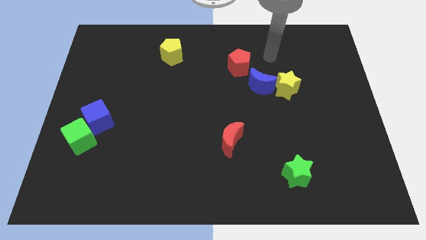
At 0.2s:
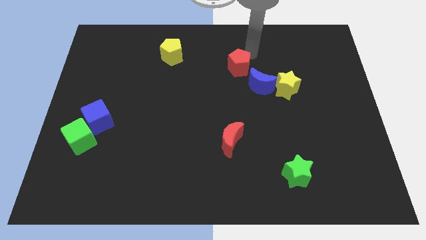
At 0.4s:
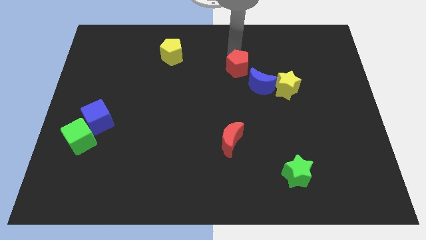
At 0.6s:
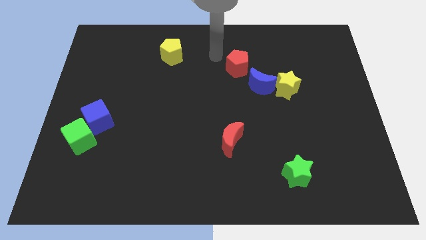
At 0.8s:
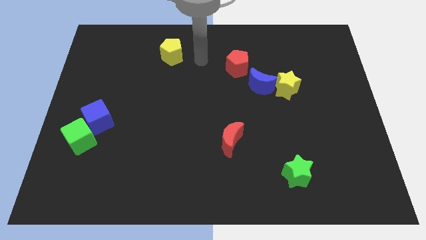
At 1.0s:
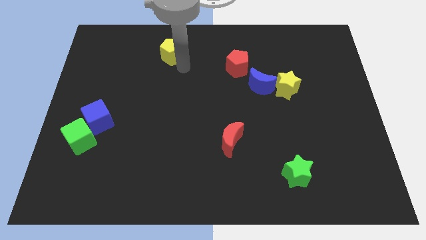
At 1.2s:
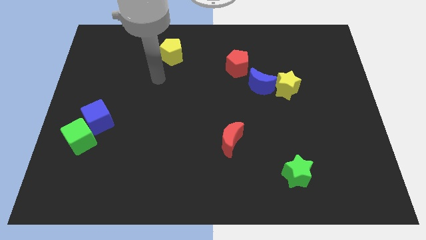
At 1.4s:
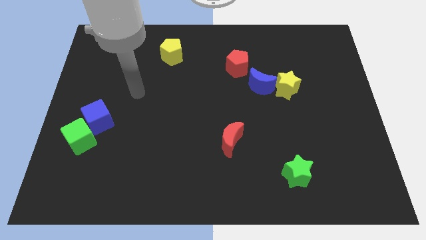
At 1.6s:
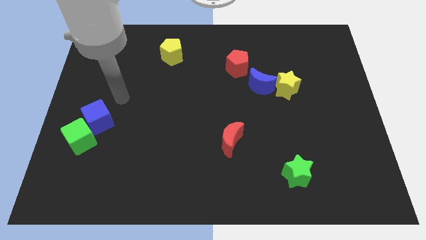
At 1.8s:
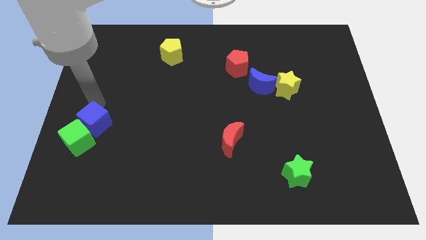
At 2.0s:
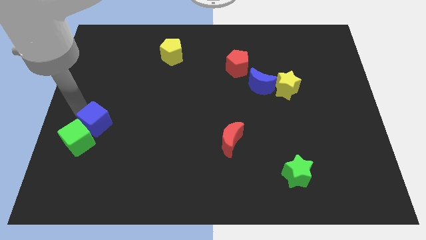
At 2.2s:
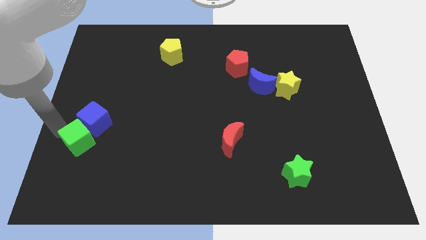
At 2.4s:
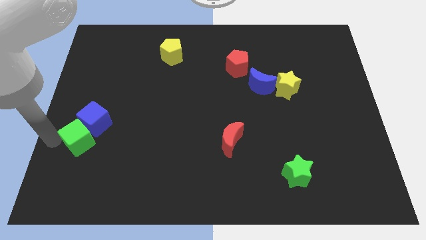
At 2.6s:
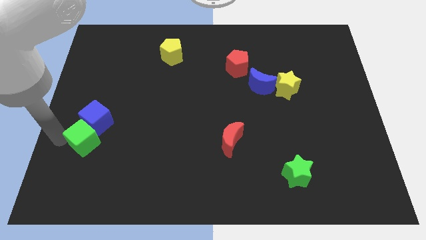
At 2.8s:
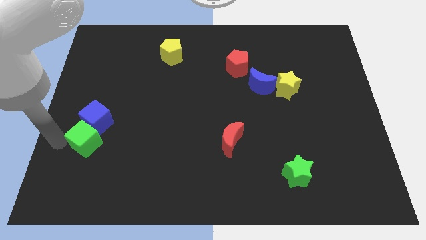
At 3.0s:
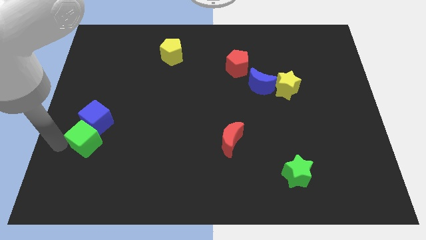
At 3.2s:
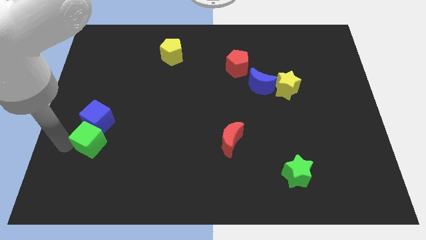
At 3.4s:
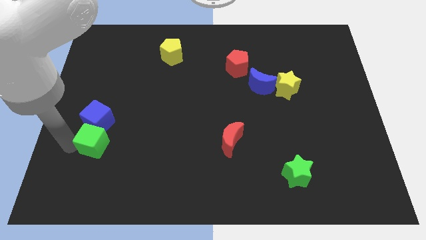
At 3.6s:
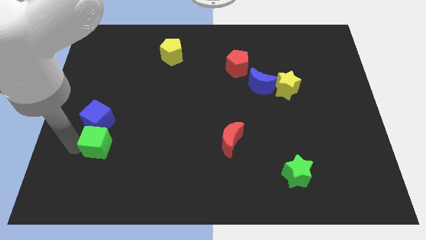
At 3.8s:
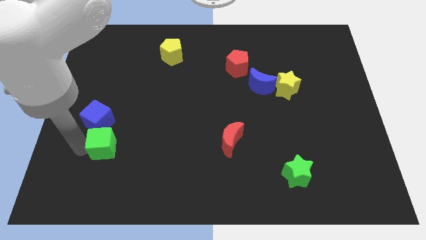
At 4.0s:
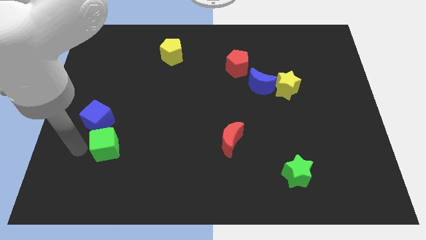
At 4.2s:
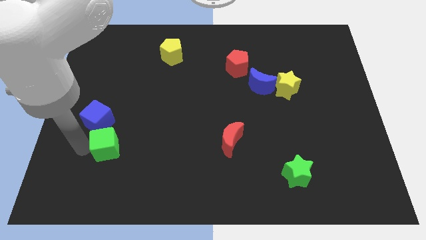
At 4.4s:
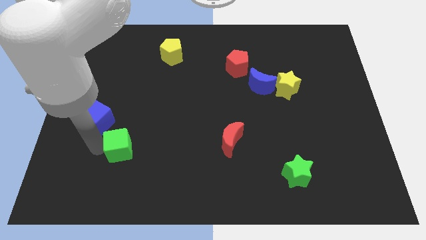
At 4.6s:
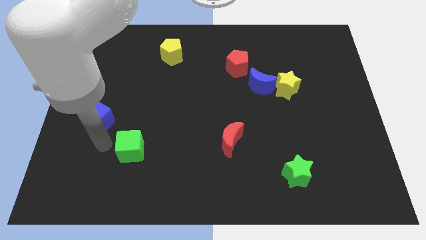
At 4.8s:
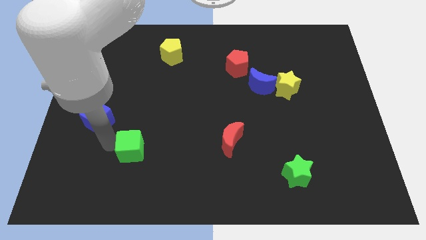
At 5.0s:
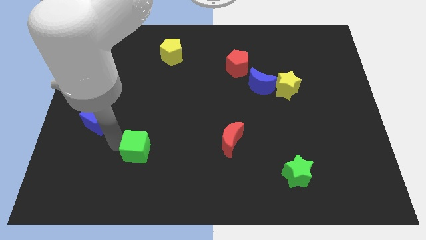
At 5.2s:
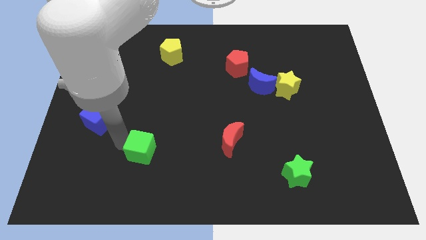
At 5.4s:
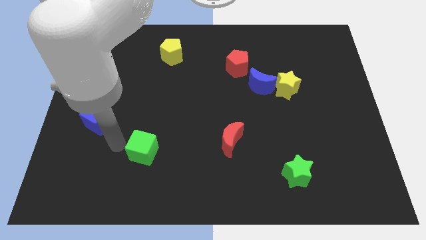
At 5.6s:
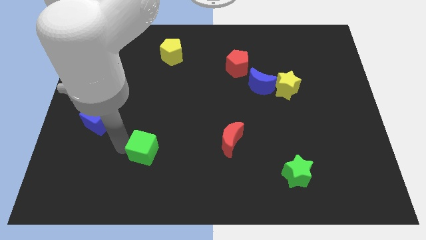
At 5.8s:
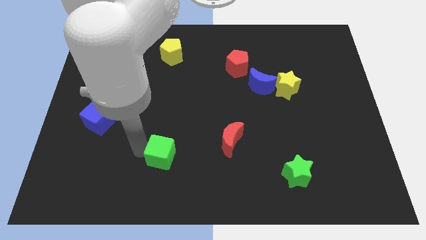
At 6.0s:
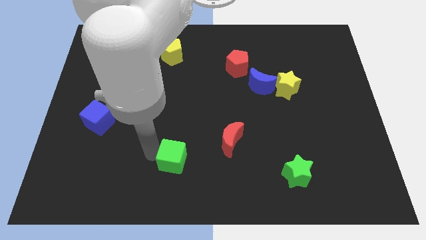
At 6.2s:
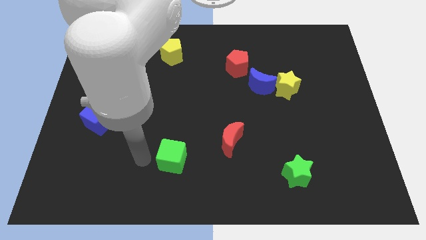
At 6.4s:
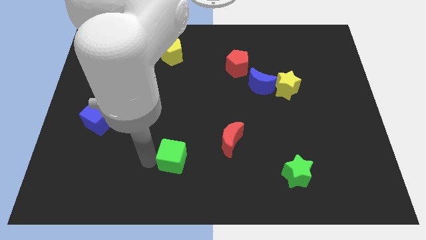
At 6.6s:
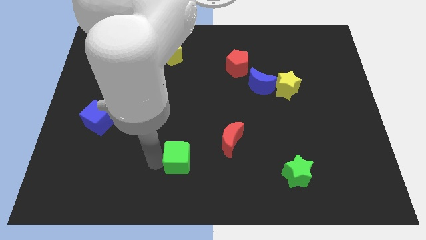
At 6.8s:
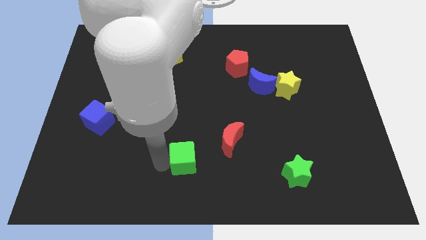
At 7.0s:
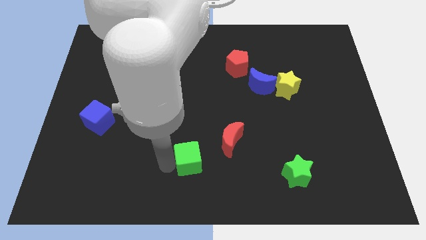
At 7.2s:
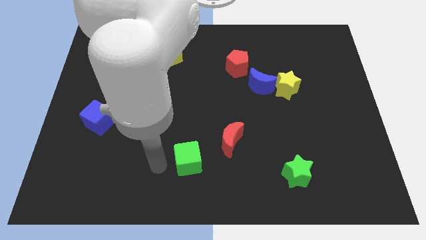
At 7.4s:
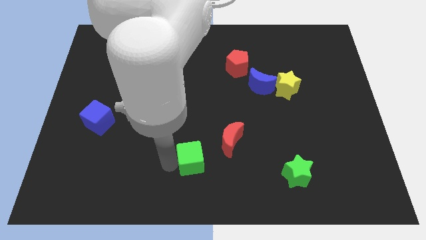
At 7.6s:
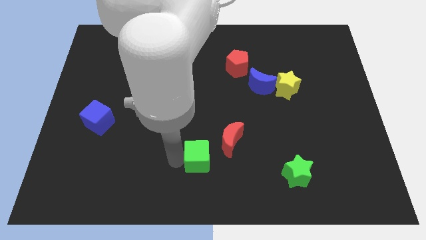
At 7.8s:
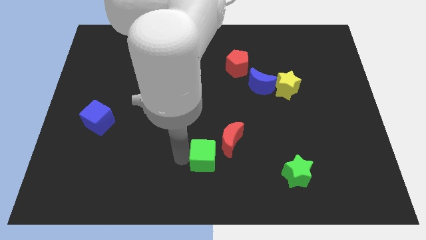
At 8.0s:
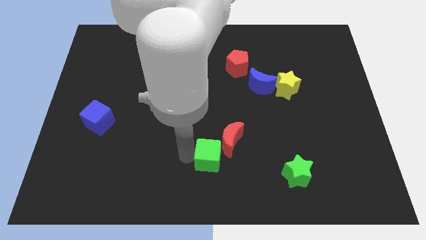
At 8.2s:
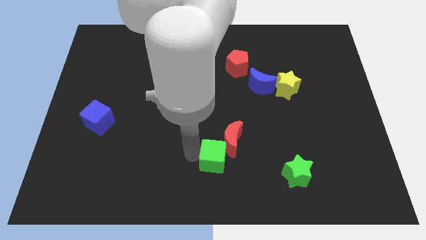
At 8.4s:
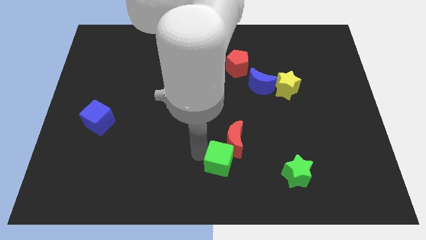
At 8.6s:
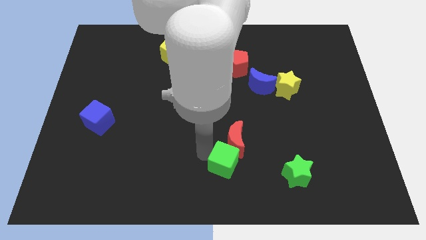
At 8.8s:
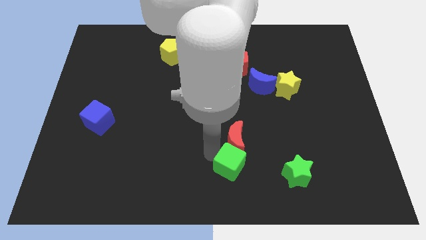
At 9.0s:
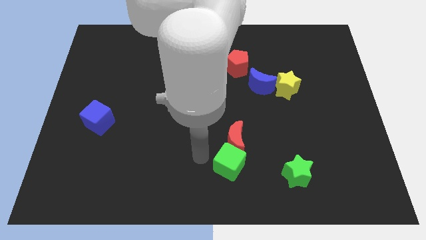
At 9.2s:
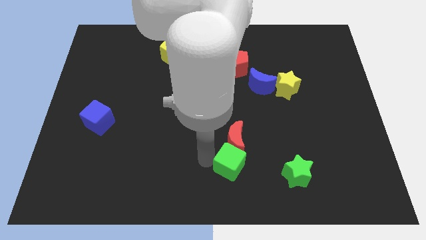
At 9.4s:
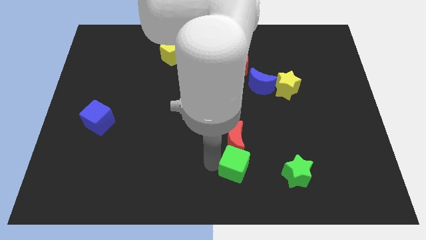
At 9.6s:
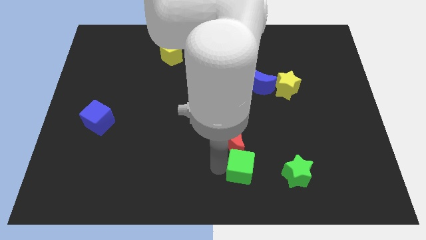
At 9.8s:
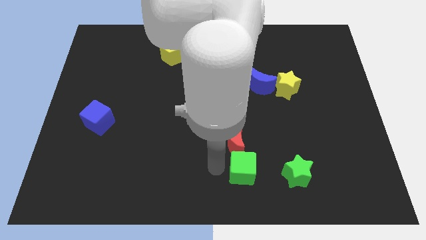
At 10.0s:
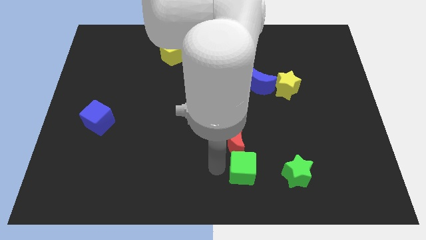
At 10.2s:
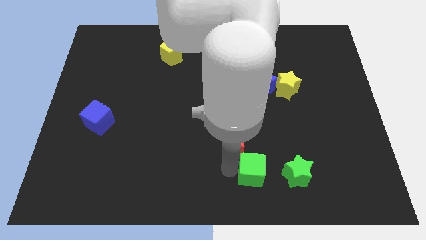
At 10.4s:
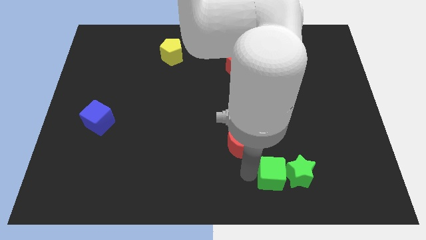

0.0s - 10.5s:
put the green cube to the green star

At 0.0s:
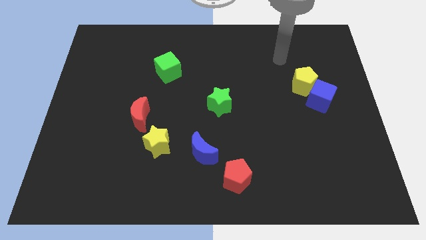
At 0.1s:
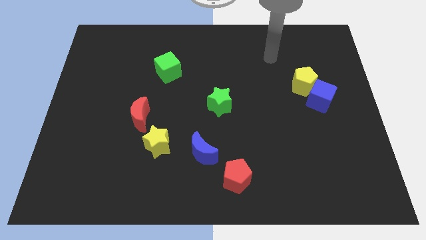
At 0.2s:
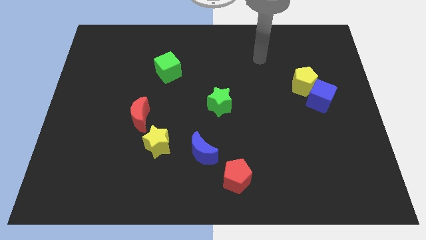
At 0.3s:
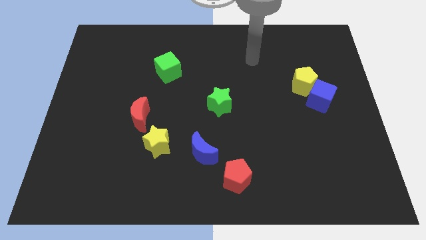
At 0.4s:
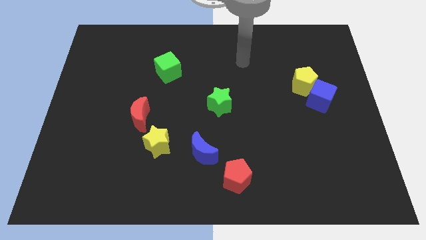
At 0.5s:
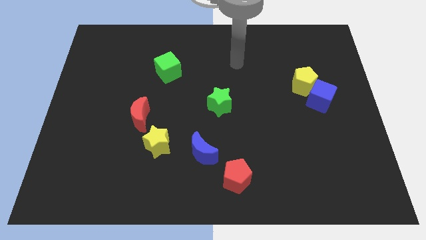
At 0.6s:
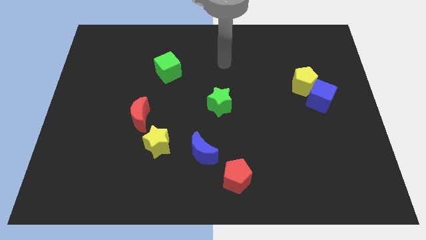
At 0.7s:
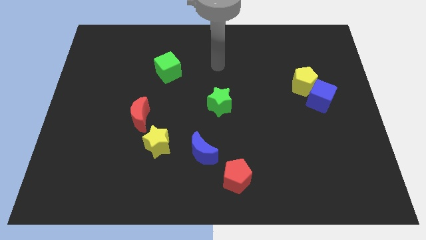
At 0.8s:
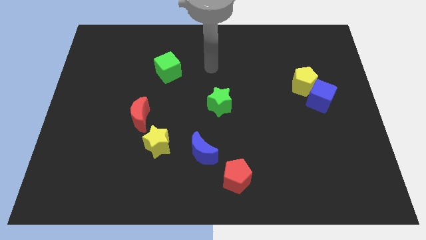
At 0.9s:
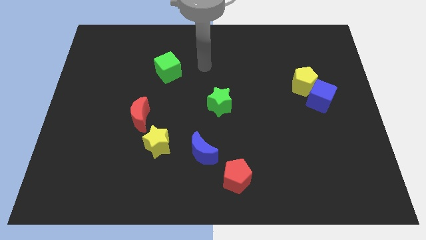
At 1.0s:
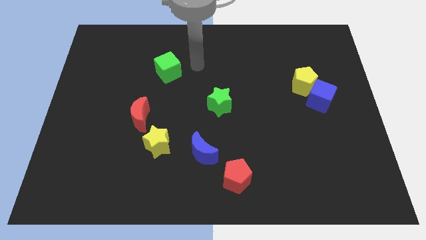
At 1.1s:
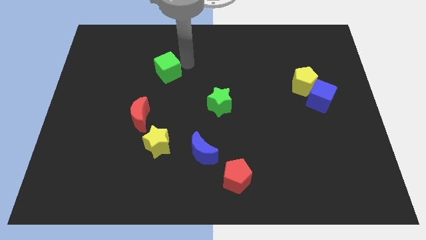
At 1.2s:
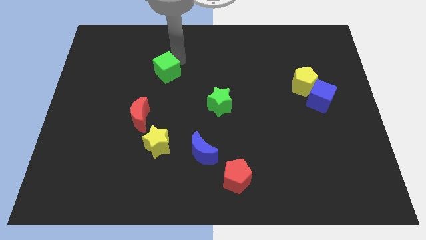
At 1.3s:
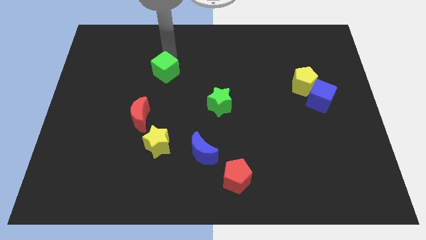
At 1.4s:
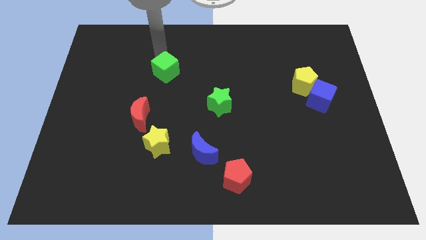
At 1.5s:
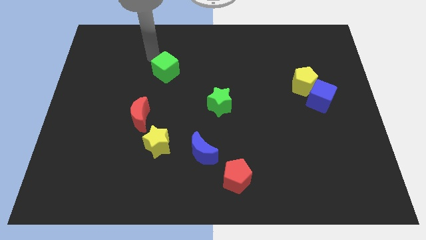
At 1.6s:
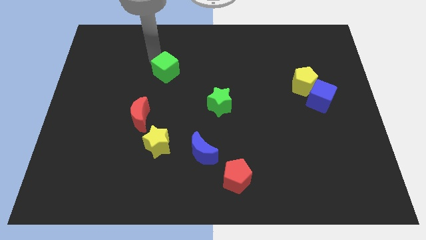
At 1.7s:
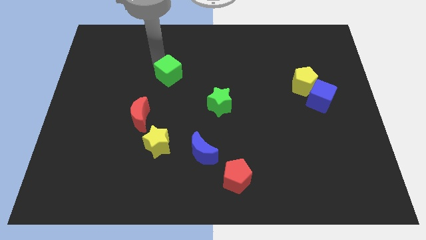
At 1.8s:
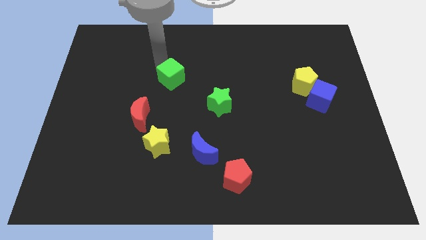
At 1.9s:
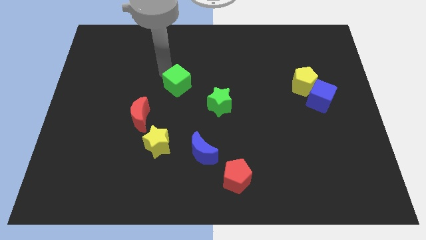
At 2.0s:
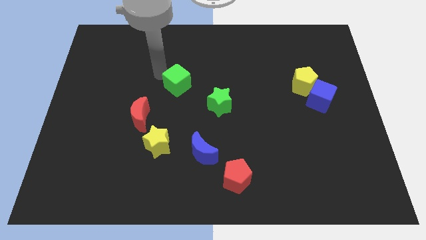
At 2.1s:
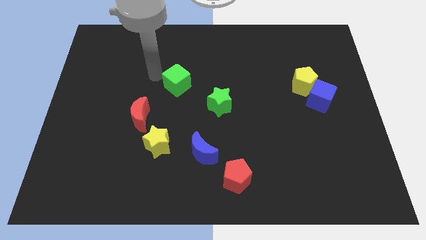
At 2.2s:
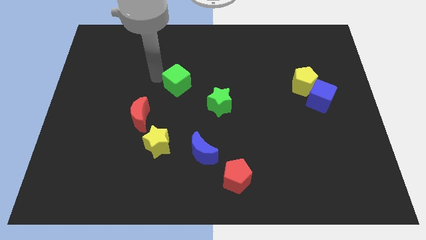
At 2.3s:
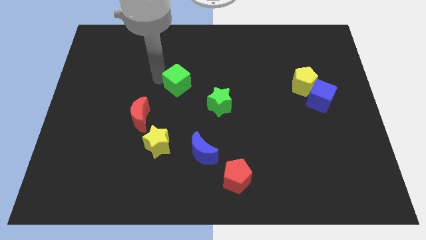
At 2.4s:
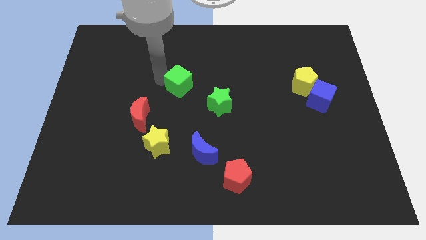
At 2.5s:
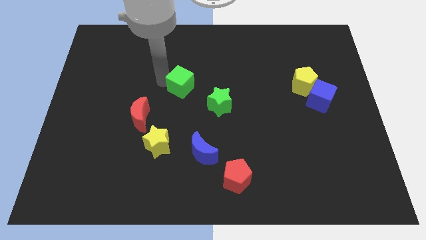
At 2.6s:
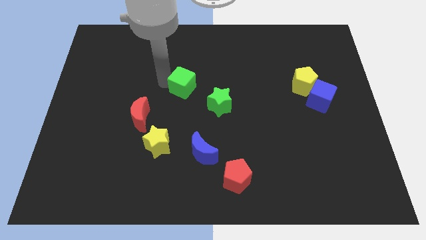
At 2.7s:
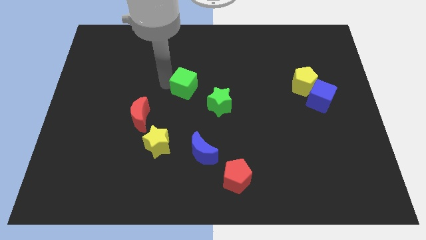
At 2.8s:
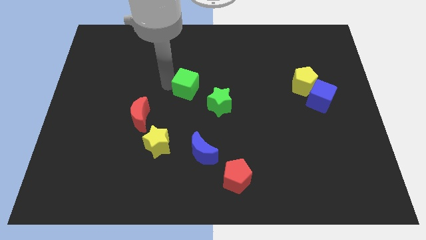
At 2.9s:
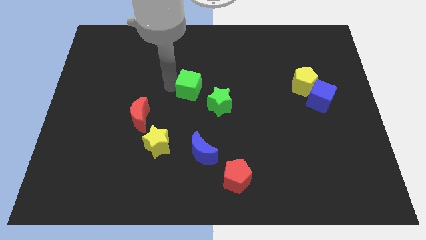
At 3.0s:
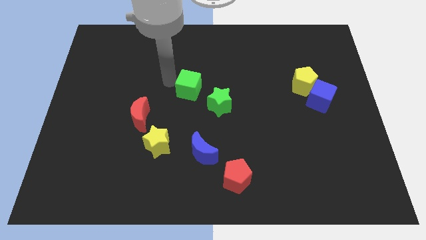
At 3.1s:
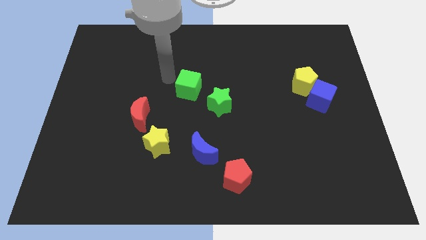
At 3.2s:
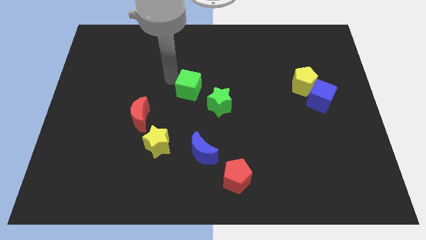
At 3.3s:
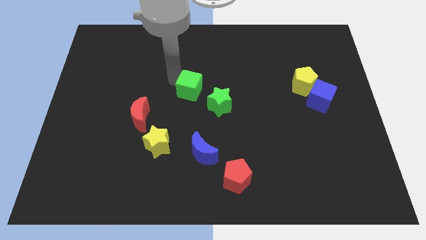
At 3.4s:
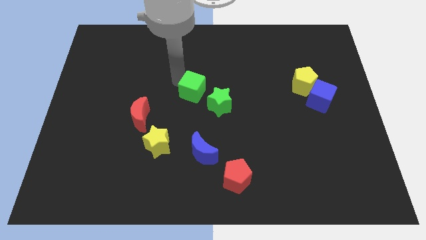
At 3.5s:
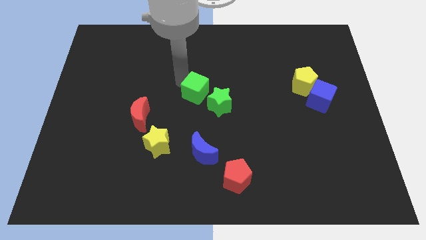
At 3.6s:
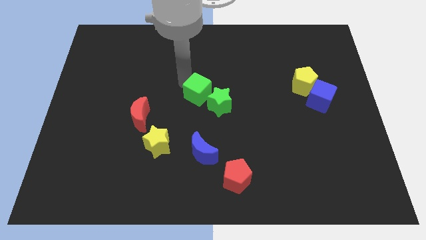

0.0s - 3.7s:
slide the green cube close to the green star
